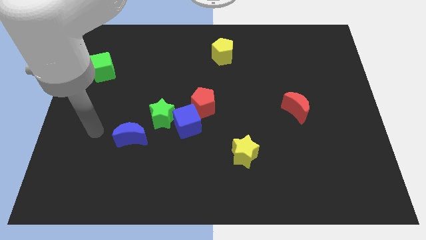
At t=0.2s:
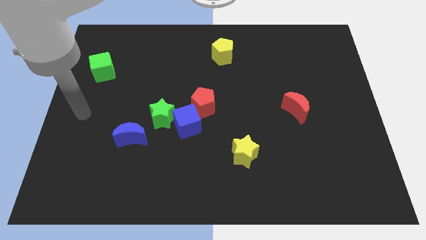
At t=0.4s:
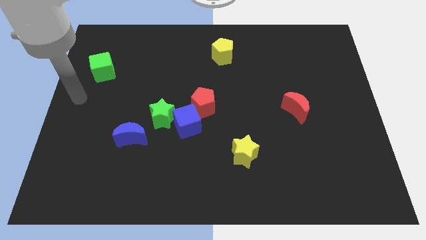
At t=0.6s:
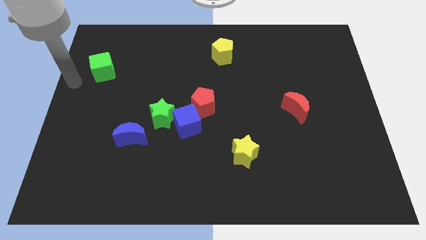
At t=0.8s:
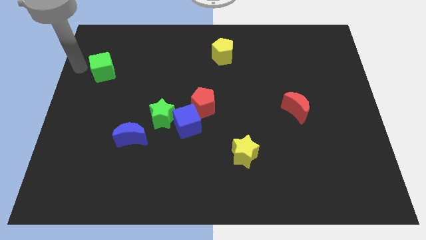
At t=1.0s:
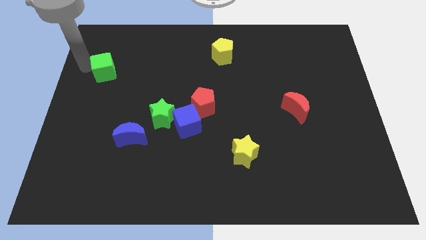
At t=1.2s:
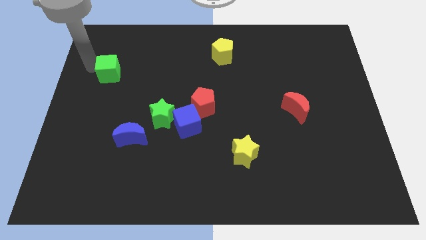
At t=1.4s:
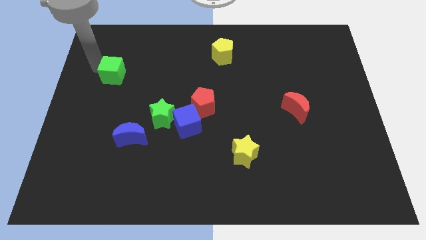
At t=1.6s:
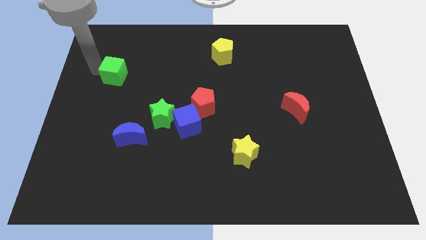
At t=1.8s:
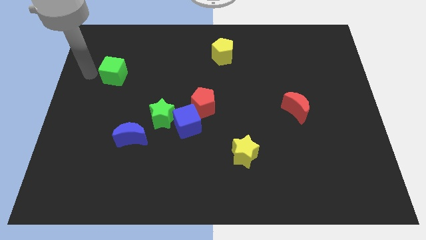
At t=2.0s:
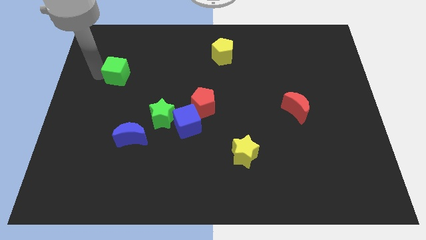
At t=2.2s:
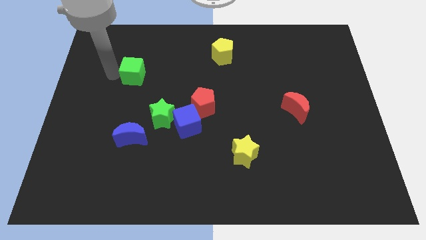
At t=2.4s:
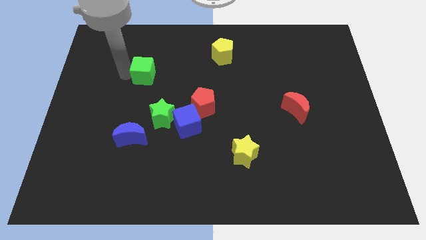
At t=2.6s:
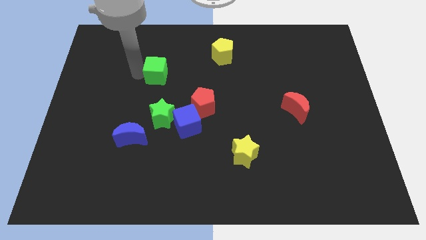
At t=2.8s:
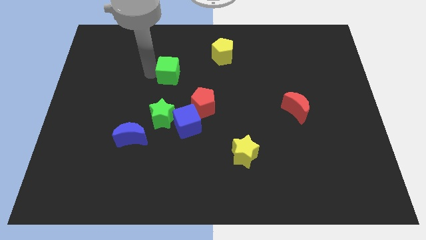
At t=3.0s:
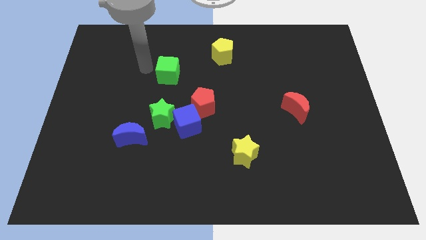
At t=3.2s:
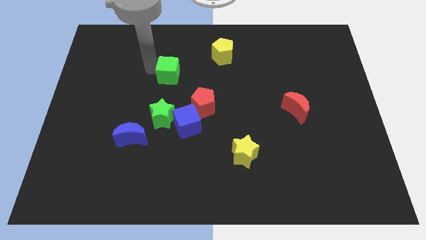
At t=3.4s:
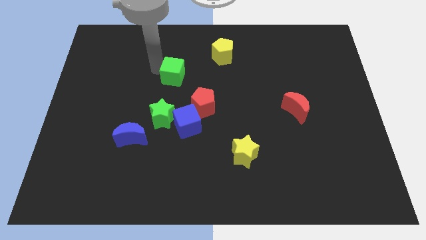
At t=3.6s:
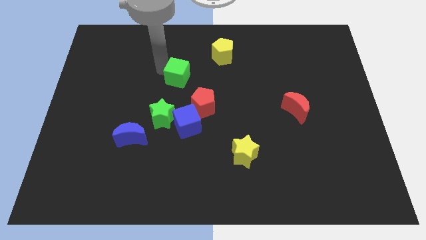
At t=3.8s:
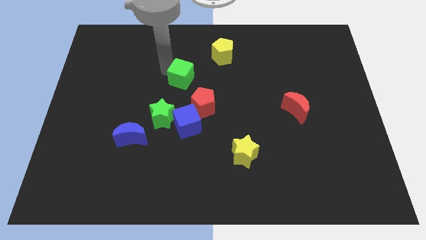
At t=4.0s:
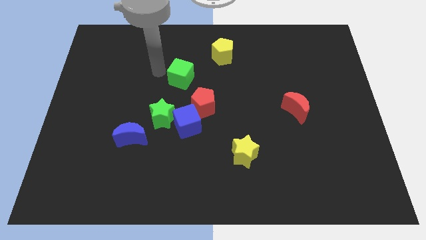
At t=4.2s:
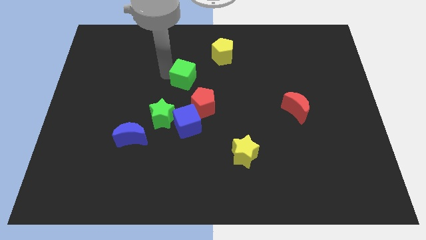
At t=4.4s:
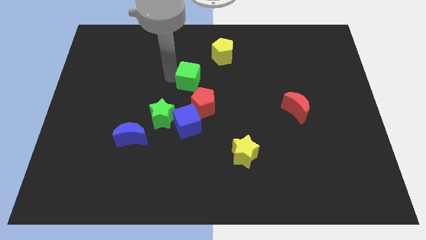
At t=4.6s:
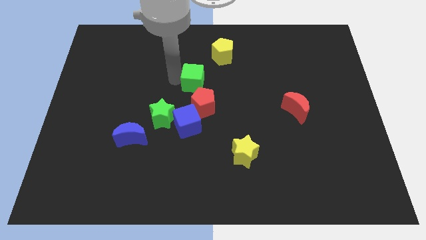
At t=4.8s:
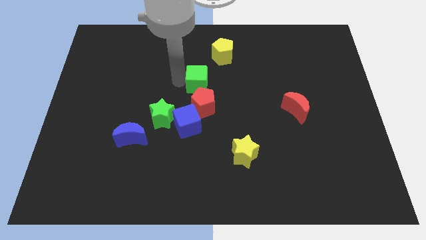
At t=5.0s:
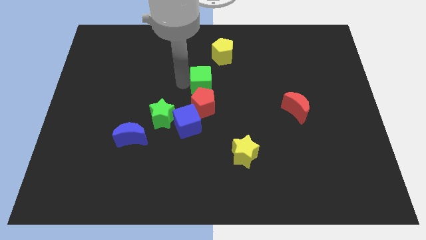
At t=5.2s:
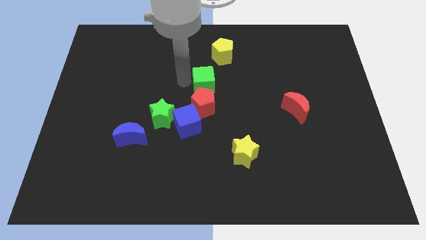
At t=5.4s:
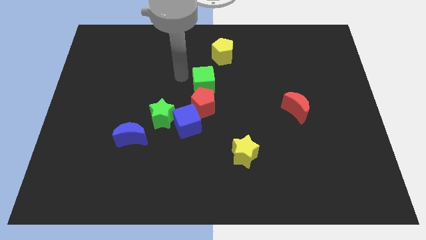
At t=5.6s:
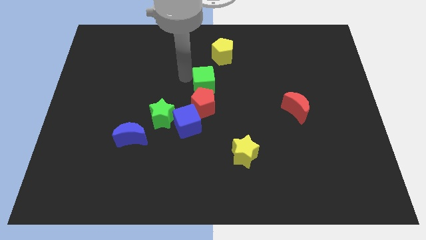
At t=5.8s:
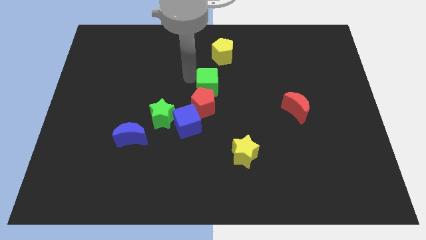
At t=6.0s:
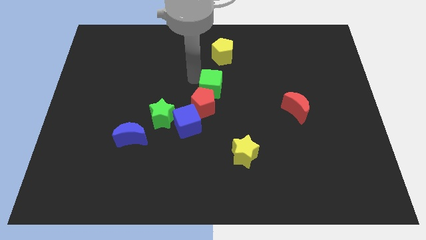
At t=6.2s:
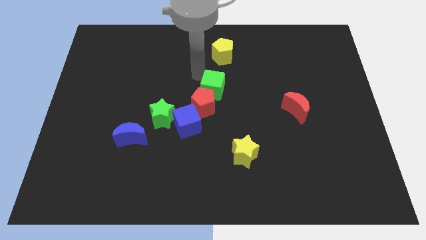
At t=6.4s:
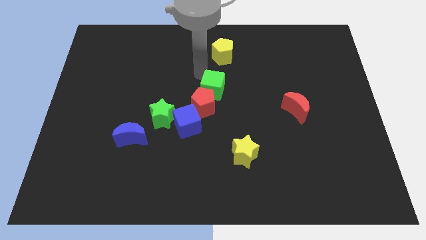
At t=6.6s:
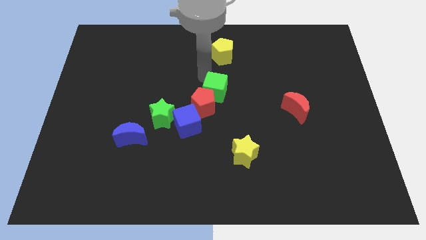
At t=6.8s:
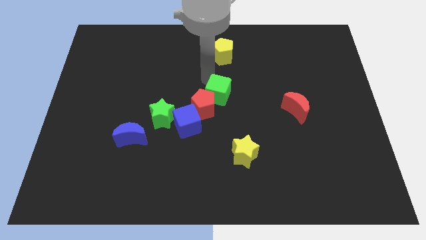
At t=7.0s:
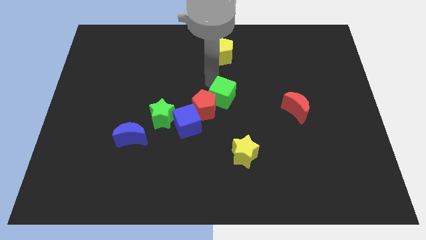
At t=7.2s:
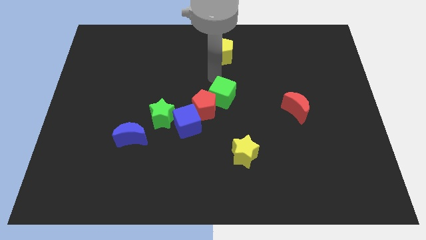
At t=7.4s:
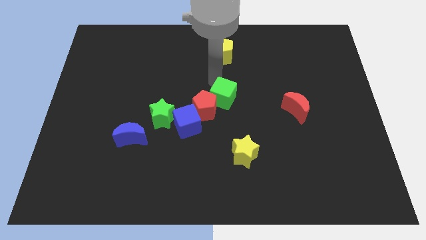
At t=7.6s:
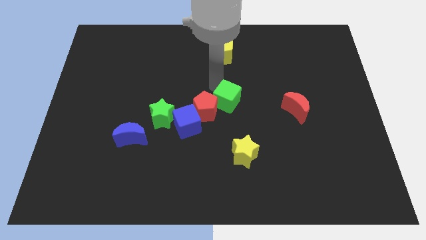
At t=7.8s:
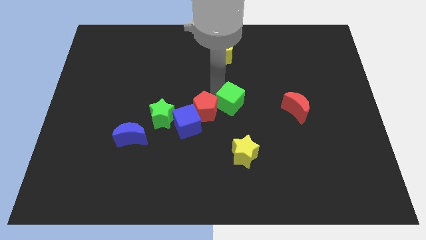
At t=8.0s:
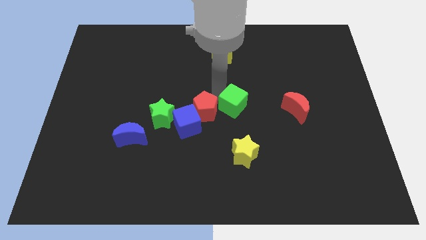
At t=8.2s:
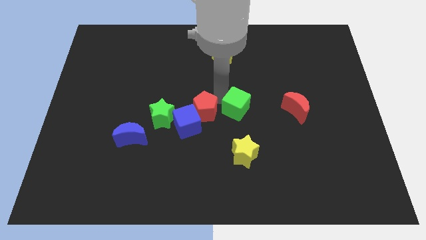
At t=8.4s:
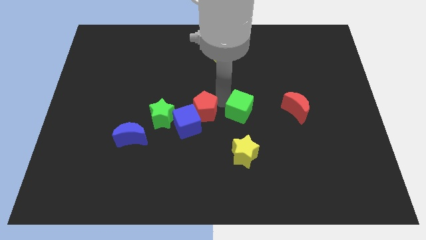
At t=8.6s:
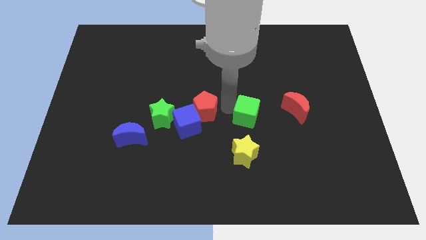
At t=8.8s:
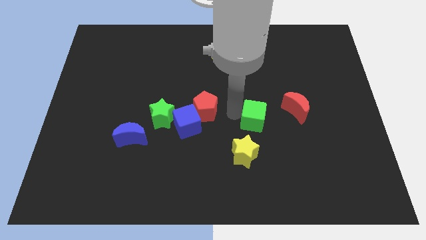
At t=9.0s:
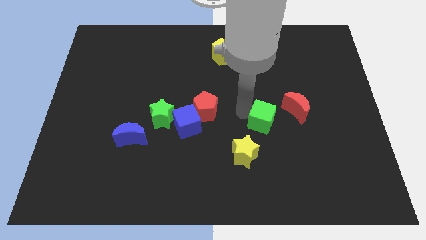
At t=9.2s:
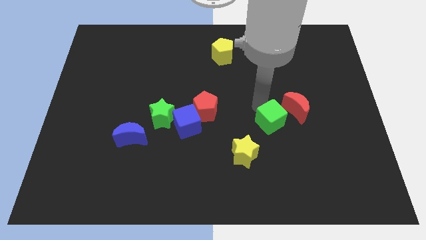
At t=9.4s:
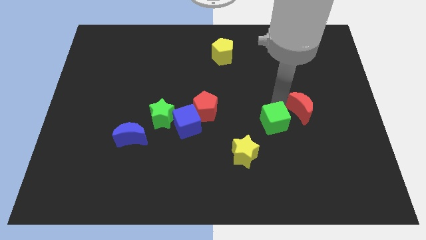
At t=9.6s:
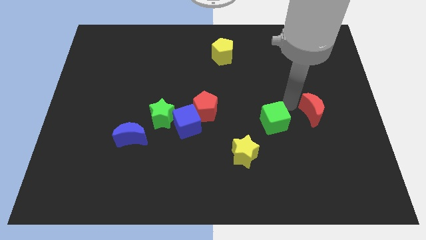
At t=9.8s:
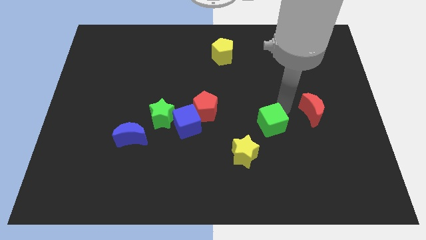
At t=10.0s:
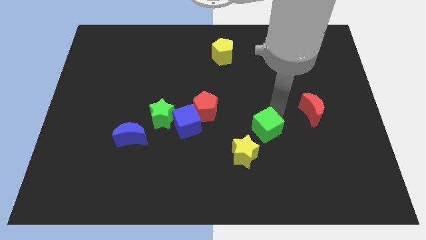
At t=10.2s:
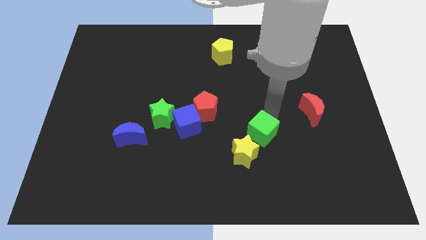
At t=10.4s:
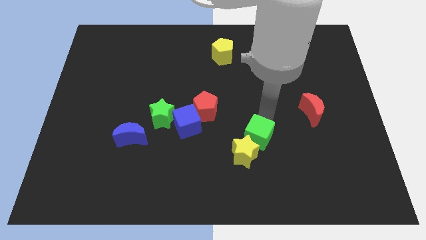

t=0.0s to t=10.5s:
push the green cube next to the yellow star

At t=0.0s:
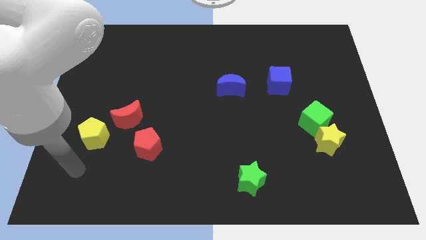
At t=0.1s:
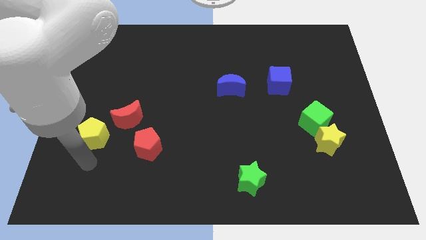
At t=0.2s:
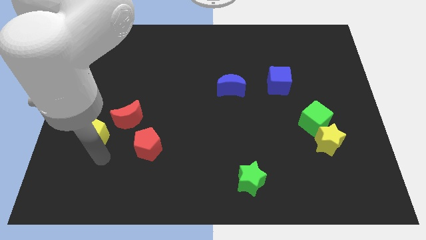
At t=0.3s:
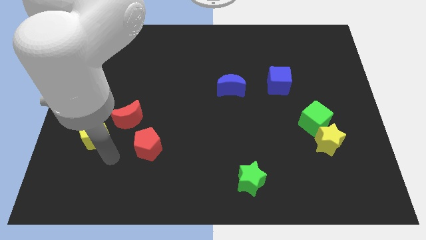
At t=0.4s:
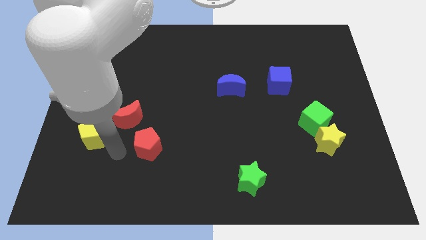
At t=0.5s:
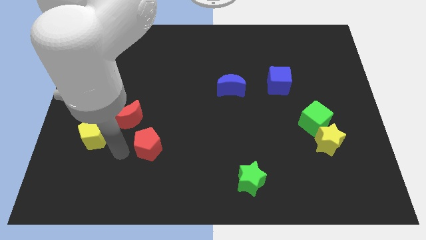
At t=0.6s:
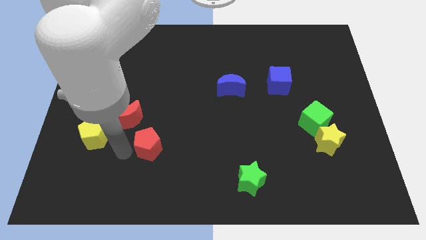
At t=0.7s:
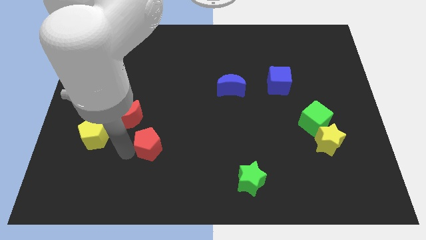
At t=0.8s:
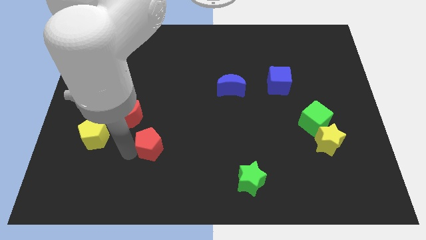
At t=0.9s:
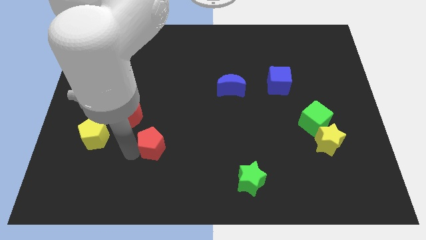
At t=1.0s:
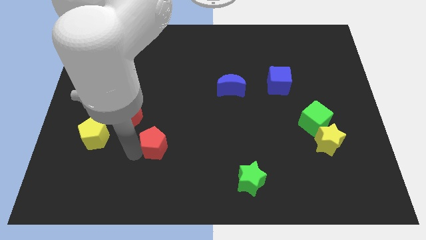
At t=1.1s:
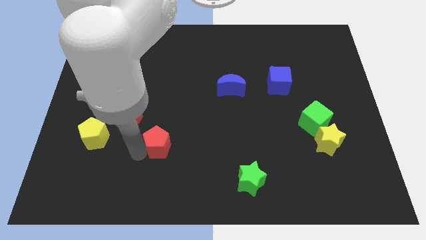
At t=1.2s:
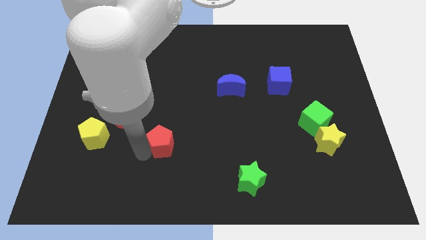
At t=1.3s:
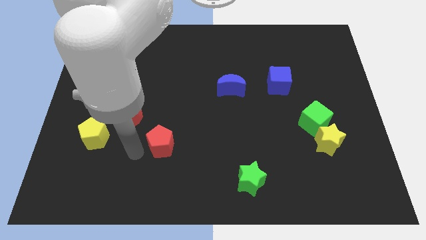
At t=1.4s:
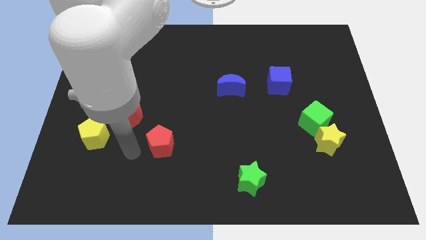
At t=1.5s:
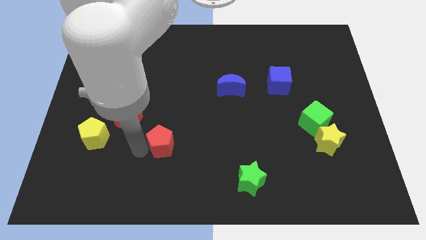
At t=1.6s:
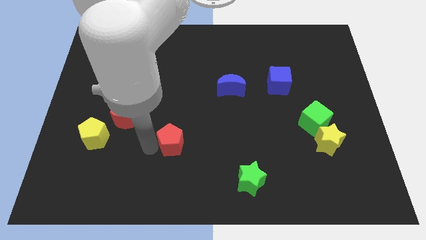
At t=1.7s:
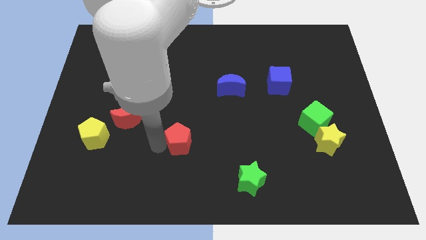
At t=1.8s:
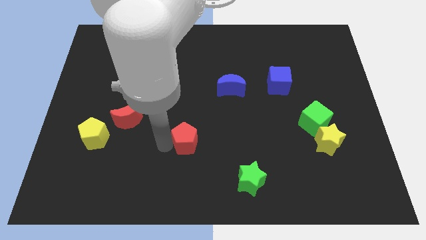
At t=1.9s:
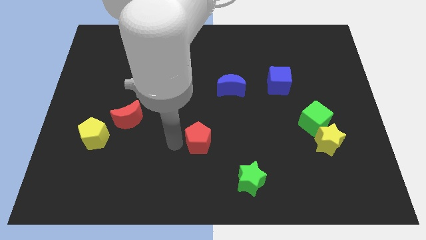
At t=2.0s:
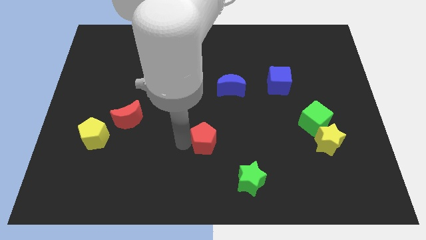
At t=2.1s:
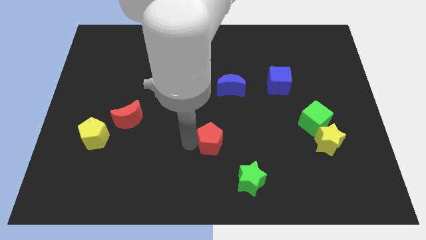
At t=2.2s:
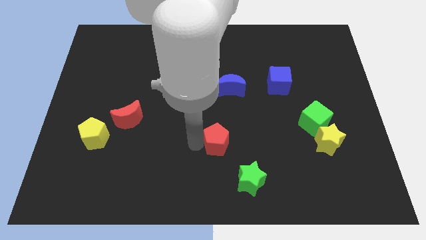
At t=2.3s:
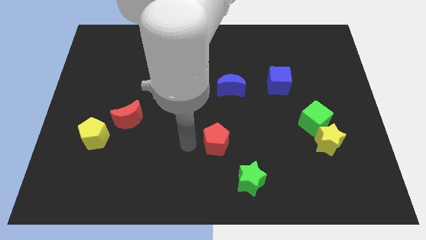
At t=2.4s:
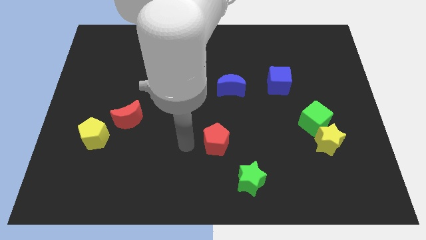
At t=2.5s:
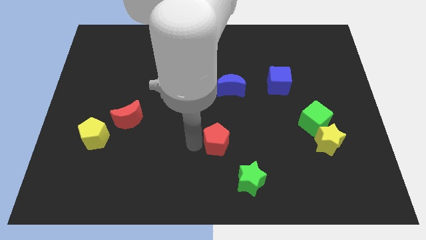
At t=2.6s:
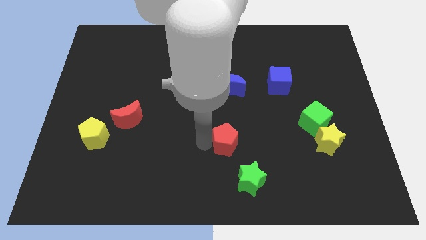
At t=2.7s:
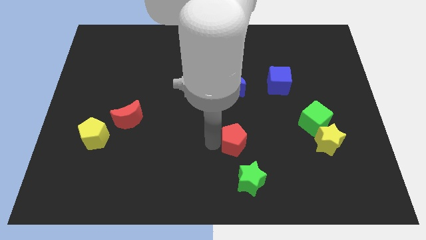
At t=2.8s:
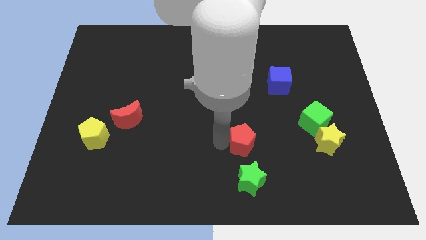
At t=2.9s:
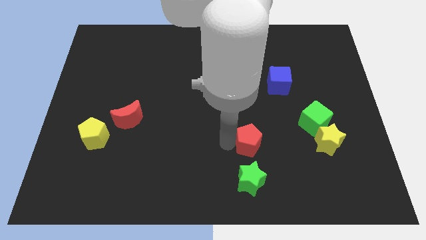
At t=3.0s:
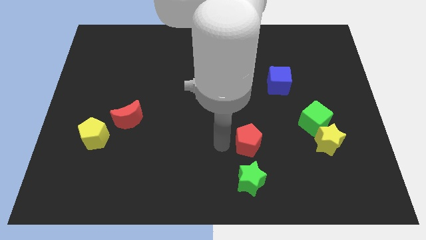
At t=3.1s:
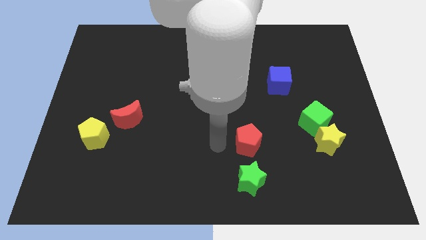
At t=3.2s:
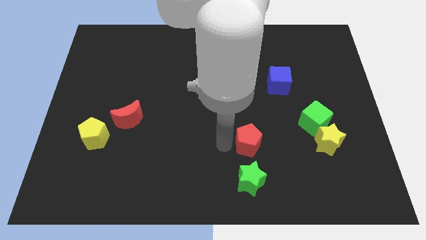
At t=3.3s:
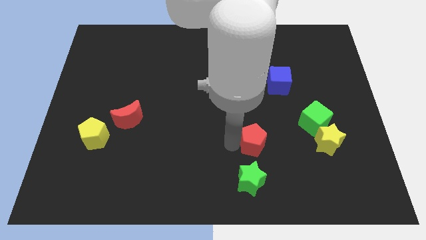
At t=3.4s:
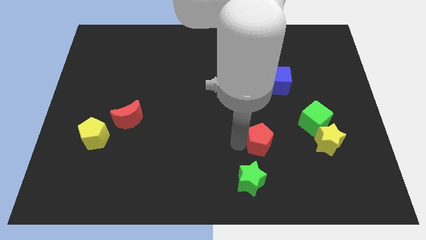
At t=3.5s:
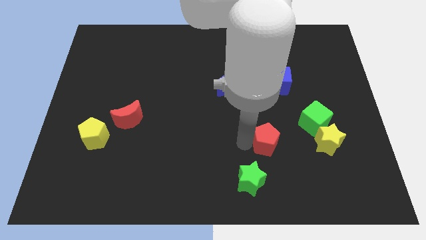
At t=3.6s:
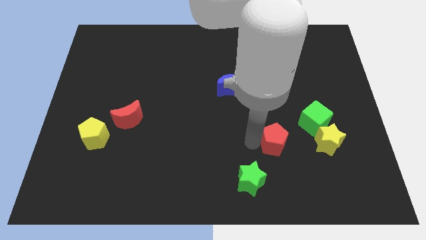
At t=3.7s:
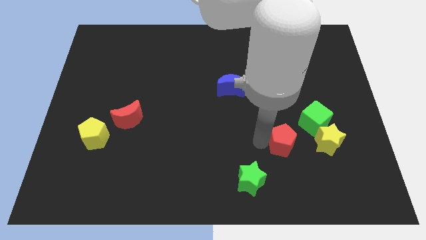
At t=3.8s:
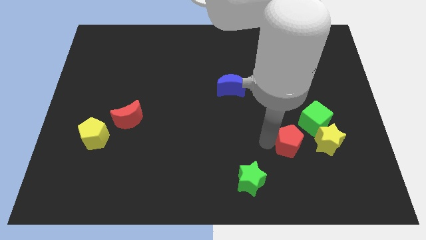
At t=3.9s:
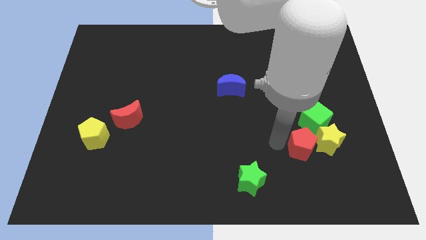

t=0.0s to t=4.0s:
move the red pentagon next to the yellow star
